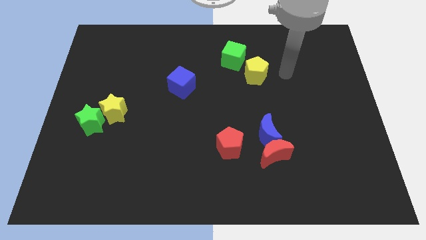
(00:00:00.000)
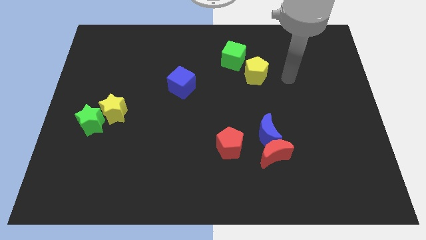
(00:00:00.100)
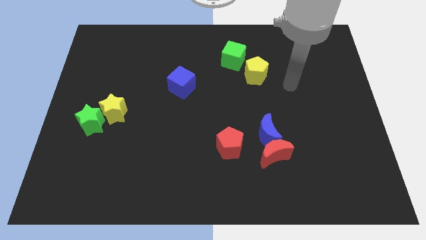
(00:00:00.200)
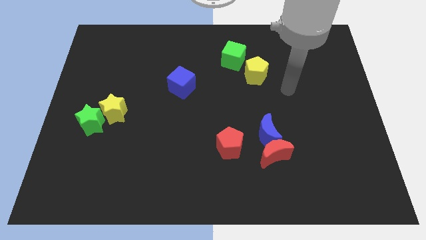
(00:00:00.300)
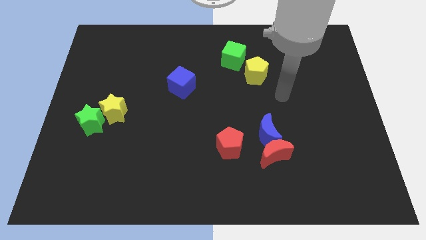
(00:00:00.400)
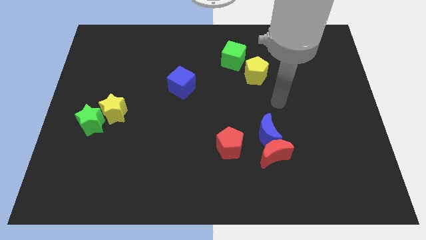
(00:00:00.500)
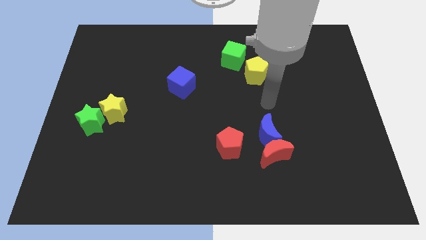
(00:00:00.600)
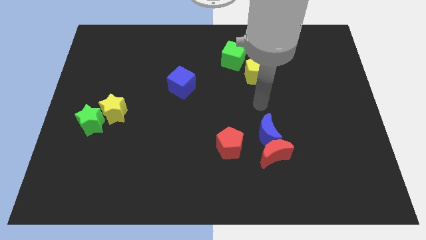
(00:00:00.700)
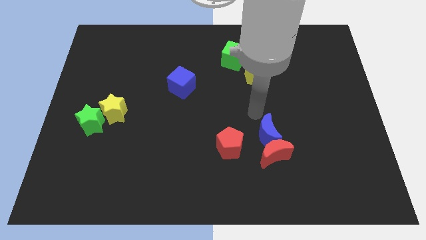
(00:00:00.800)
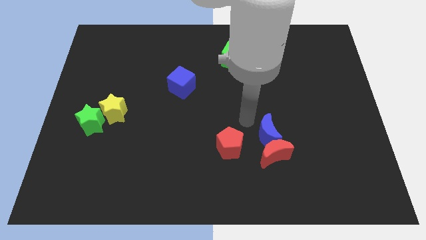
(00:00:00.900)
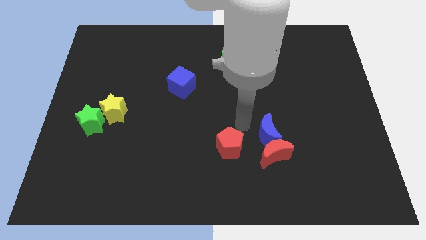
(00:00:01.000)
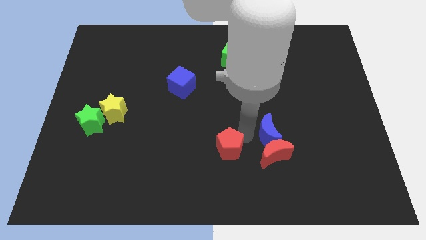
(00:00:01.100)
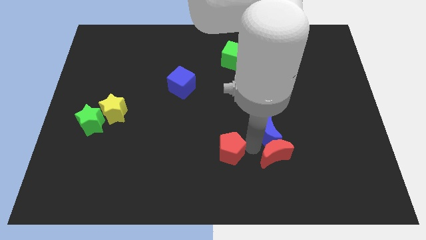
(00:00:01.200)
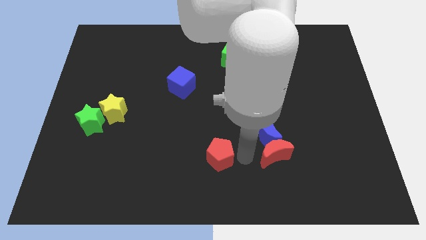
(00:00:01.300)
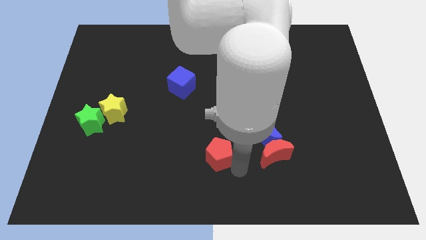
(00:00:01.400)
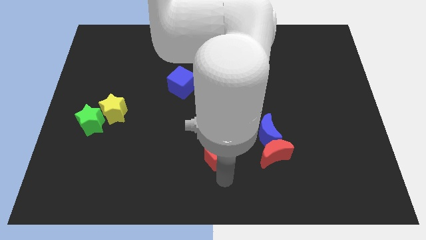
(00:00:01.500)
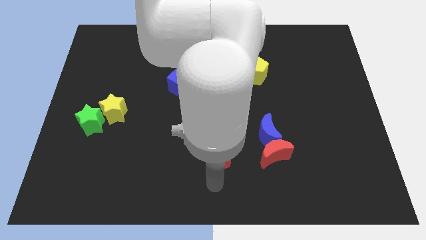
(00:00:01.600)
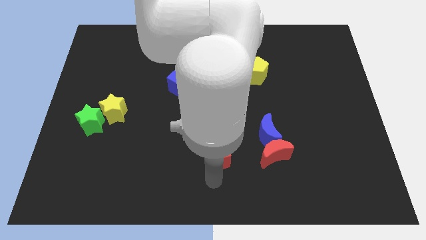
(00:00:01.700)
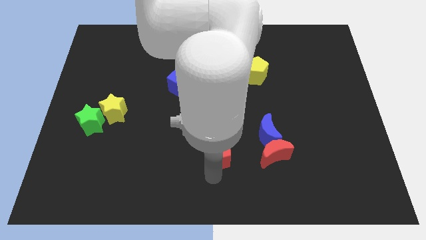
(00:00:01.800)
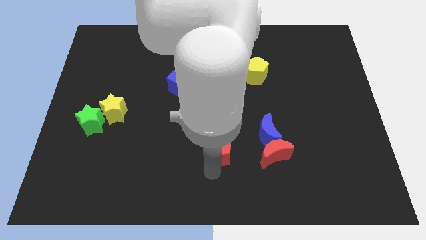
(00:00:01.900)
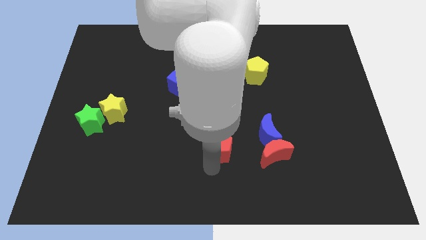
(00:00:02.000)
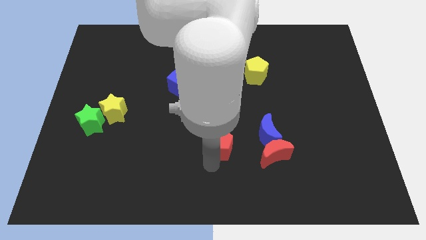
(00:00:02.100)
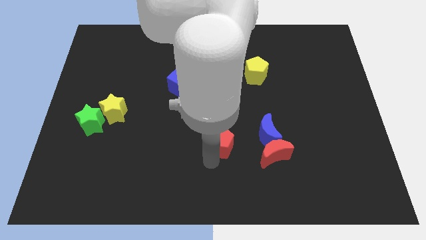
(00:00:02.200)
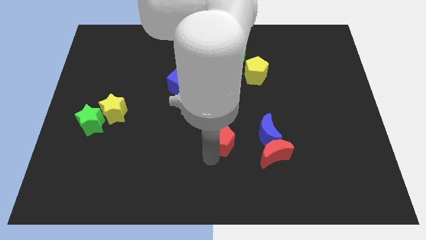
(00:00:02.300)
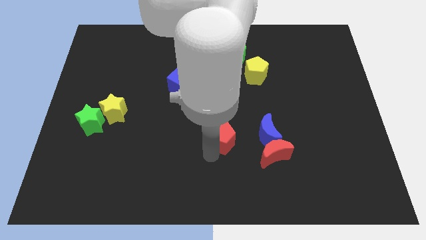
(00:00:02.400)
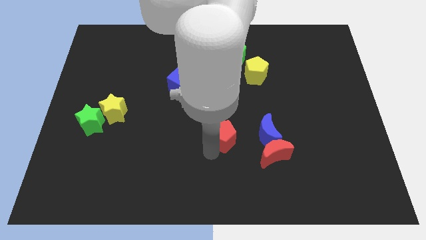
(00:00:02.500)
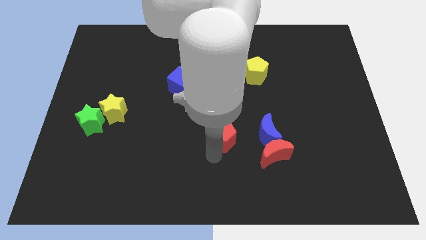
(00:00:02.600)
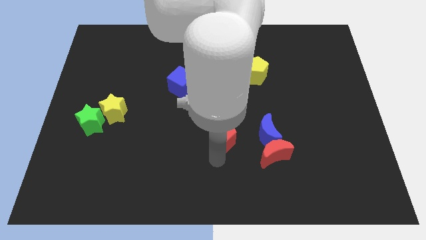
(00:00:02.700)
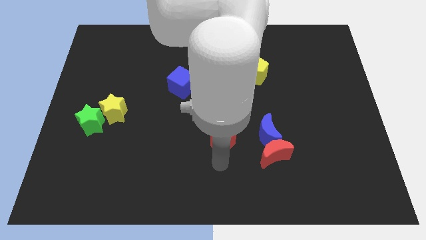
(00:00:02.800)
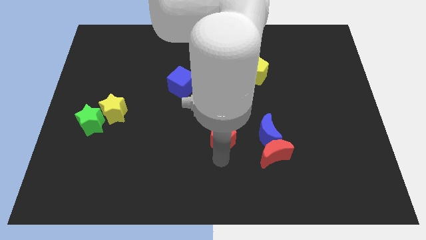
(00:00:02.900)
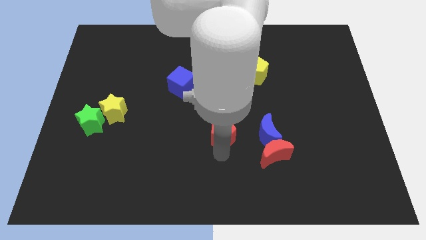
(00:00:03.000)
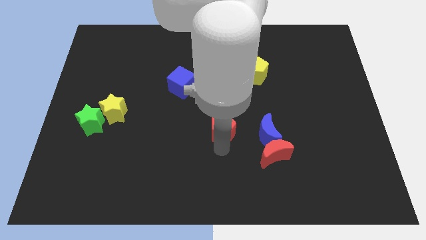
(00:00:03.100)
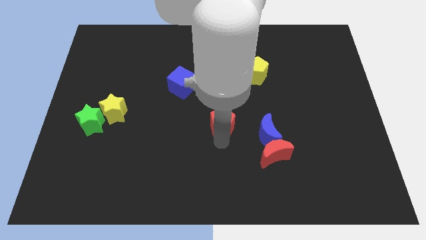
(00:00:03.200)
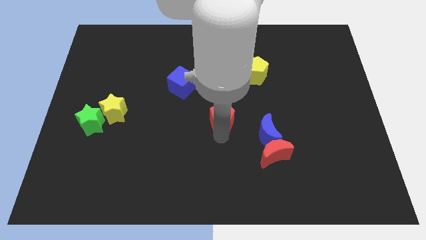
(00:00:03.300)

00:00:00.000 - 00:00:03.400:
move the red pentagon up a bit

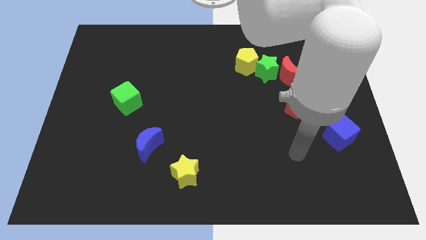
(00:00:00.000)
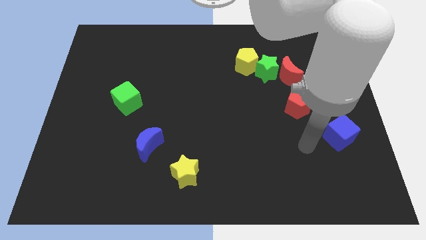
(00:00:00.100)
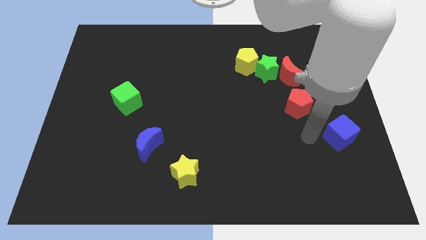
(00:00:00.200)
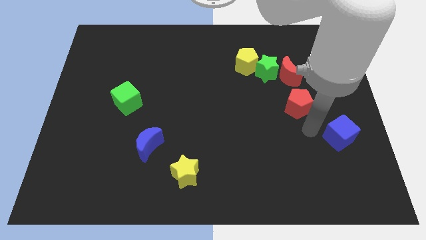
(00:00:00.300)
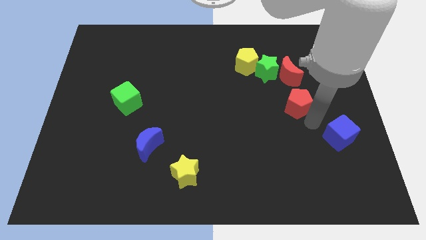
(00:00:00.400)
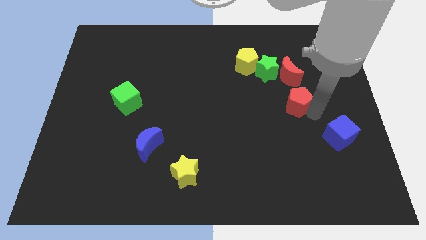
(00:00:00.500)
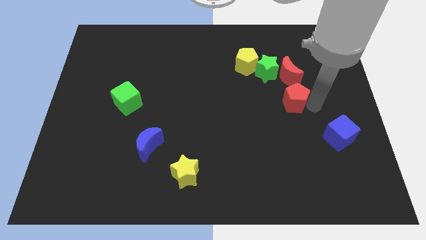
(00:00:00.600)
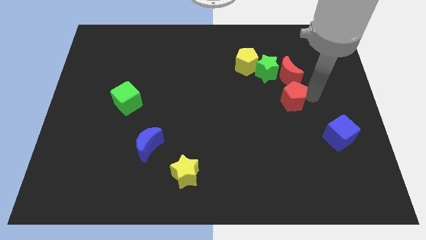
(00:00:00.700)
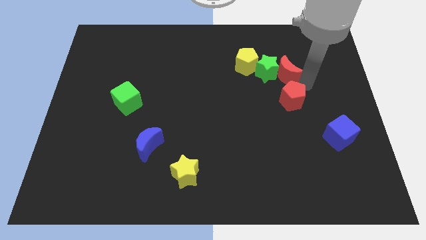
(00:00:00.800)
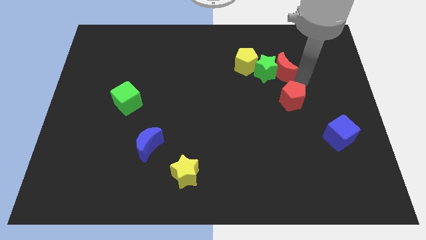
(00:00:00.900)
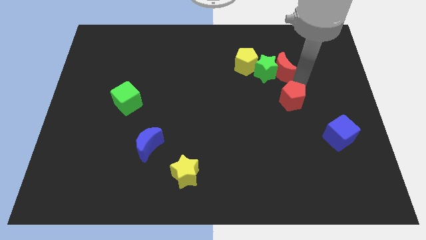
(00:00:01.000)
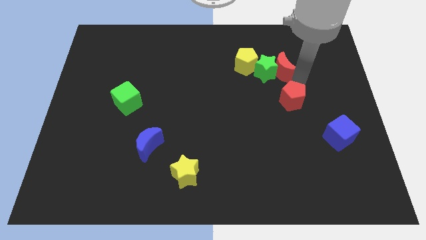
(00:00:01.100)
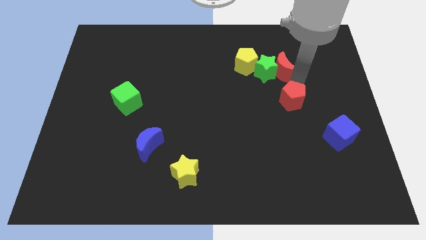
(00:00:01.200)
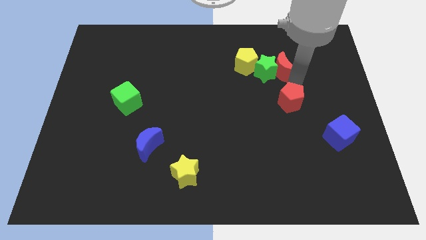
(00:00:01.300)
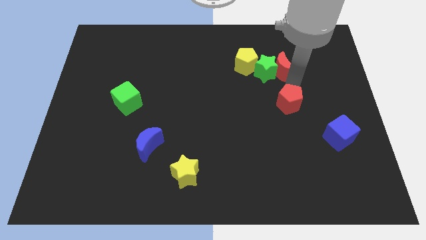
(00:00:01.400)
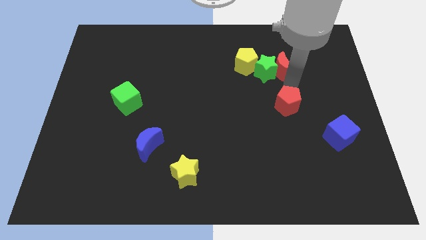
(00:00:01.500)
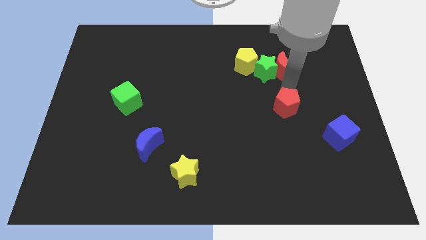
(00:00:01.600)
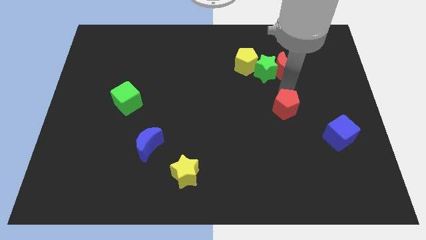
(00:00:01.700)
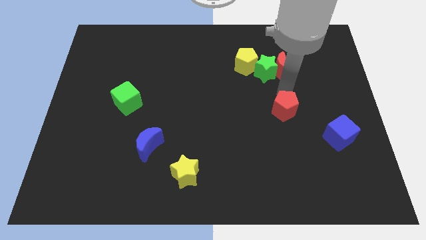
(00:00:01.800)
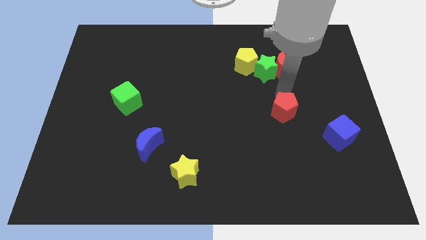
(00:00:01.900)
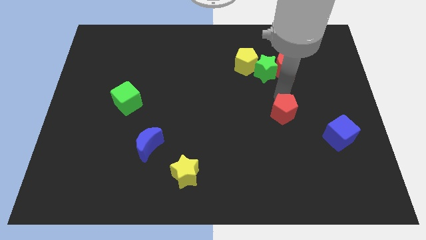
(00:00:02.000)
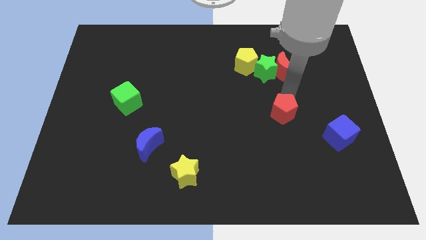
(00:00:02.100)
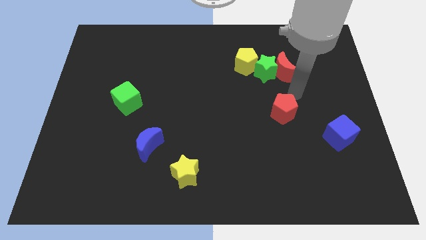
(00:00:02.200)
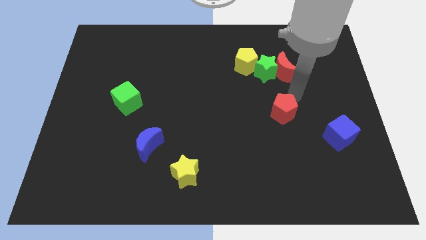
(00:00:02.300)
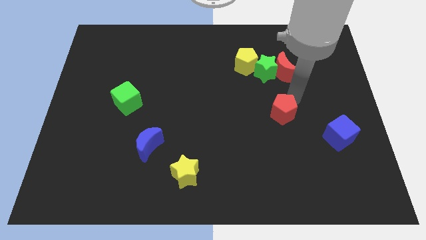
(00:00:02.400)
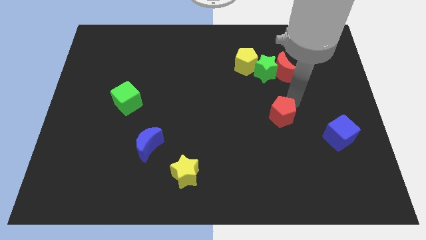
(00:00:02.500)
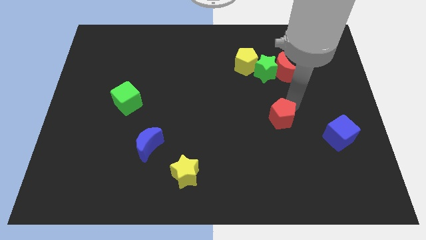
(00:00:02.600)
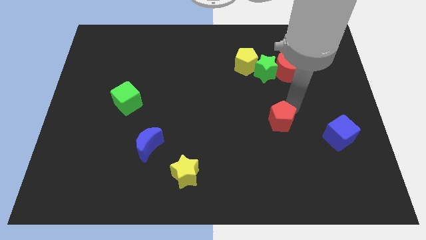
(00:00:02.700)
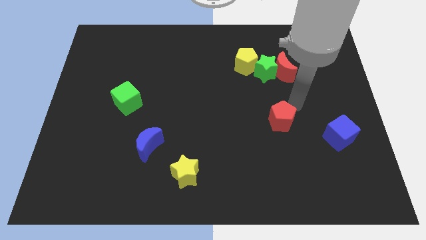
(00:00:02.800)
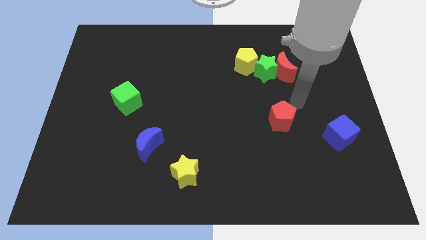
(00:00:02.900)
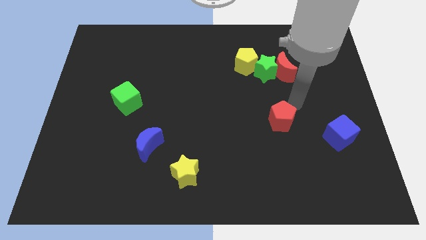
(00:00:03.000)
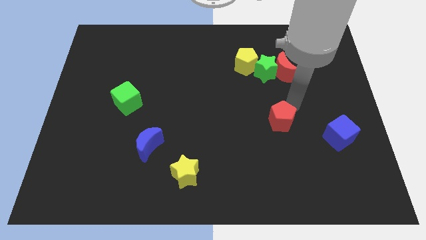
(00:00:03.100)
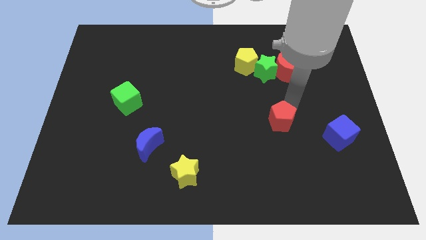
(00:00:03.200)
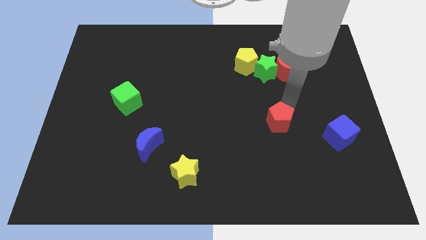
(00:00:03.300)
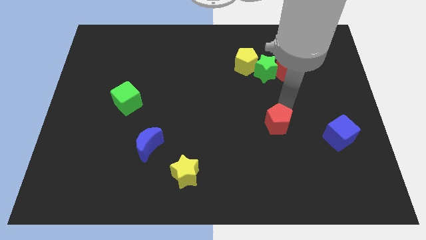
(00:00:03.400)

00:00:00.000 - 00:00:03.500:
push the red pentagon a little bit down and left

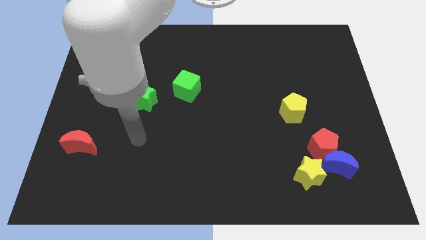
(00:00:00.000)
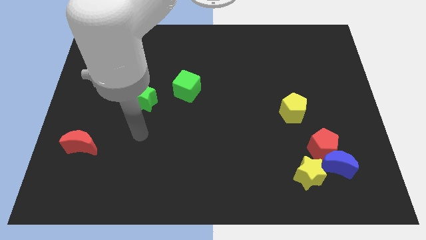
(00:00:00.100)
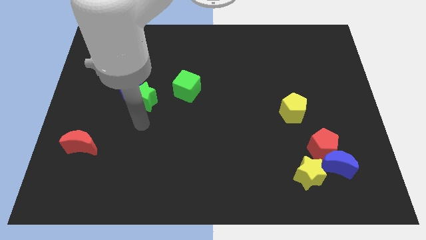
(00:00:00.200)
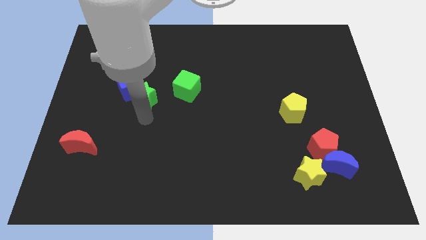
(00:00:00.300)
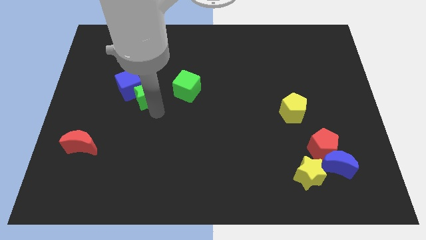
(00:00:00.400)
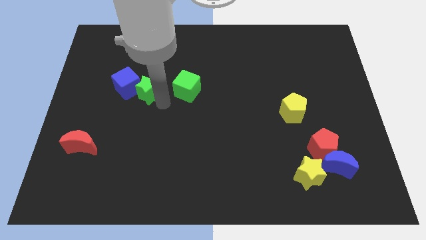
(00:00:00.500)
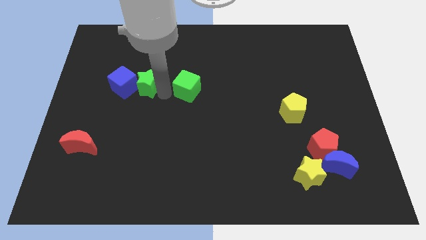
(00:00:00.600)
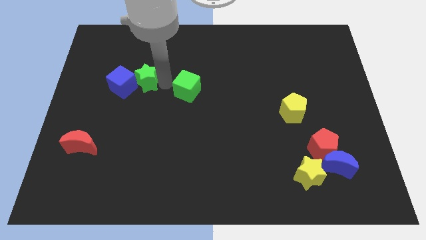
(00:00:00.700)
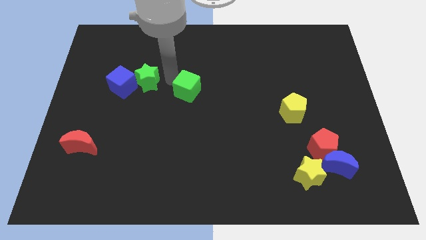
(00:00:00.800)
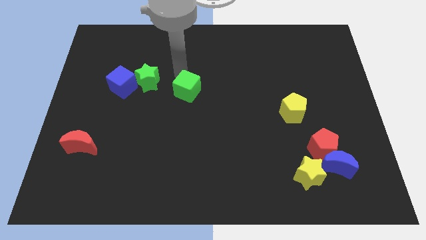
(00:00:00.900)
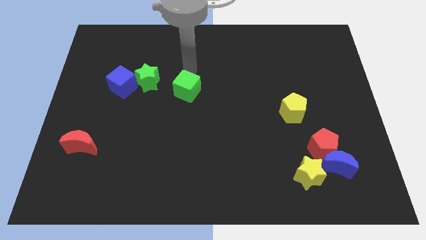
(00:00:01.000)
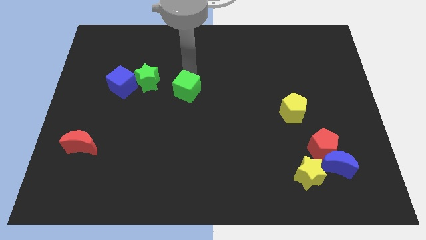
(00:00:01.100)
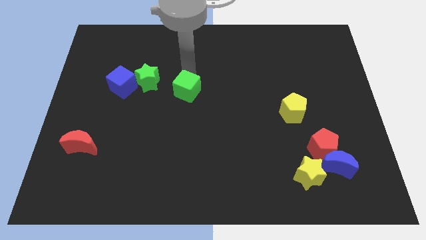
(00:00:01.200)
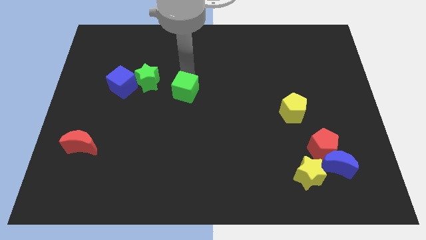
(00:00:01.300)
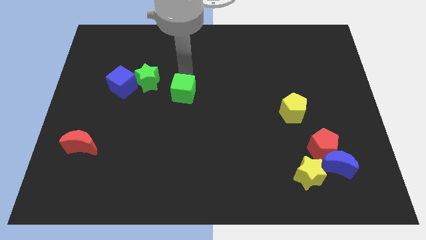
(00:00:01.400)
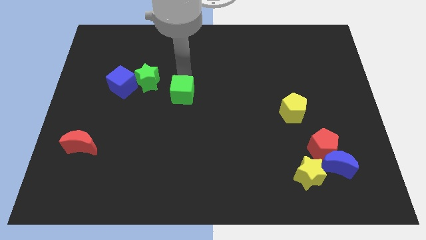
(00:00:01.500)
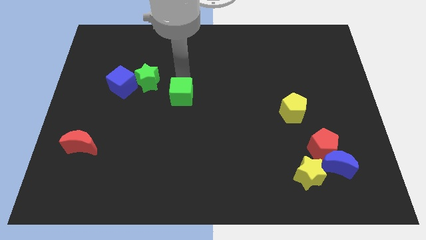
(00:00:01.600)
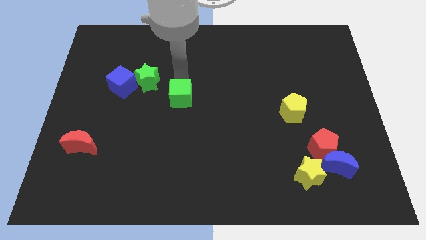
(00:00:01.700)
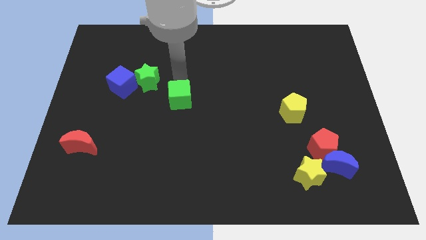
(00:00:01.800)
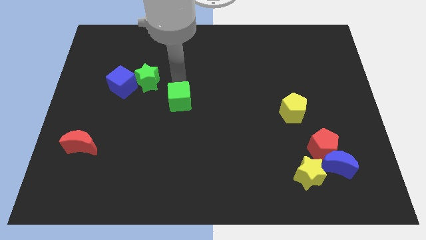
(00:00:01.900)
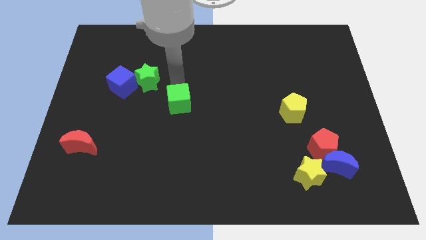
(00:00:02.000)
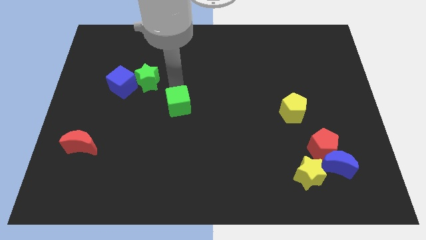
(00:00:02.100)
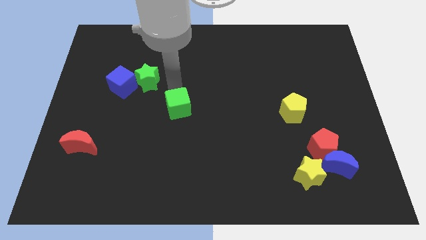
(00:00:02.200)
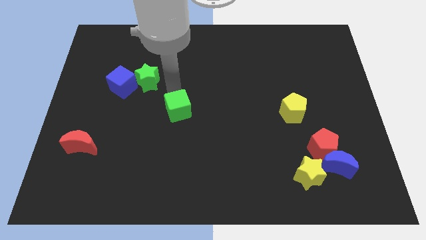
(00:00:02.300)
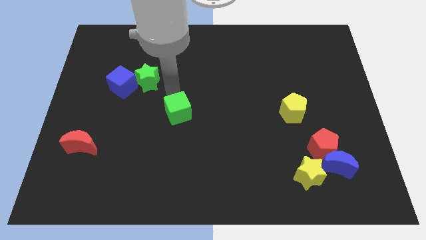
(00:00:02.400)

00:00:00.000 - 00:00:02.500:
push the green cube somewhat down
